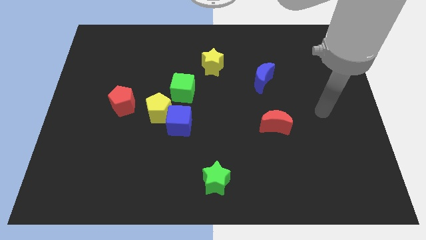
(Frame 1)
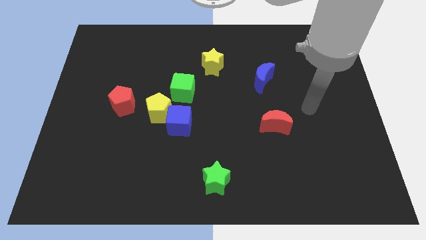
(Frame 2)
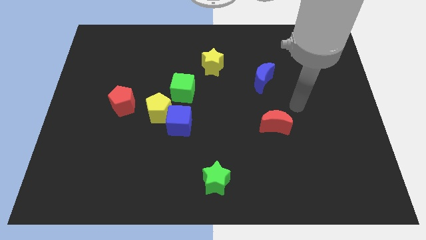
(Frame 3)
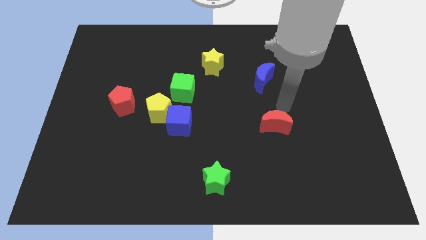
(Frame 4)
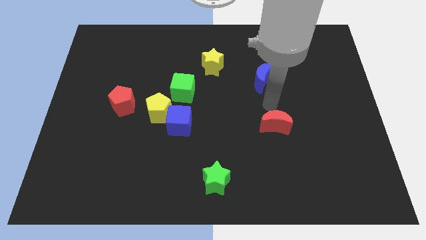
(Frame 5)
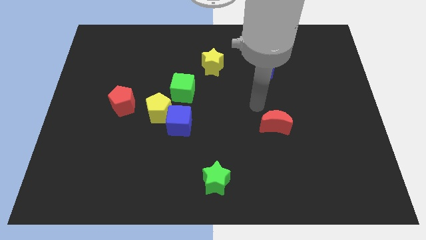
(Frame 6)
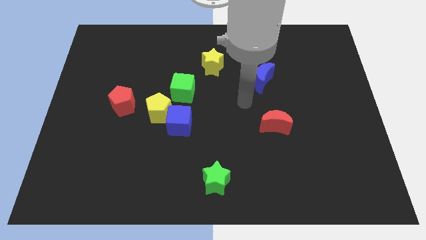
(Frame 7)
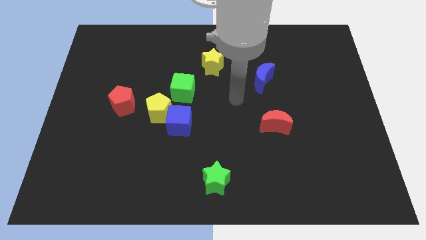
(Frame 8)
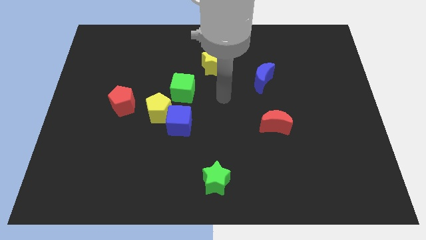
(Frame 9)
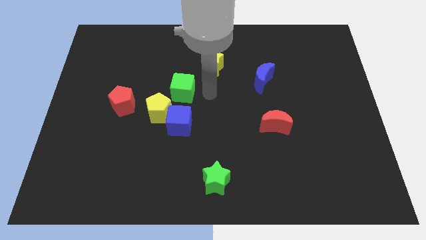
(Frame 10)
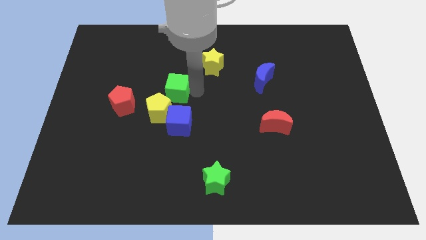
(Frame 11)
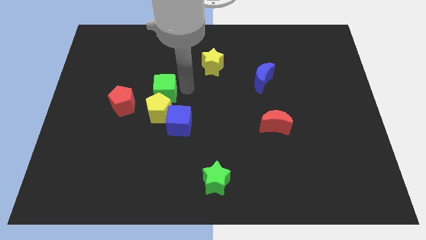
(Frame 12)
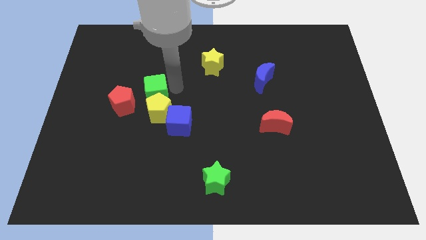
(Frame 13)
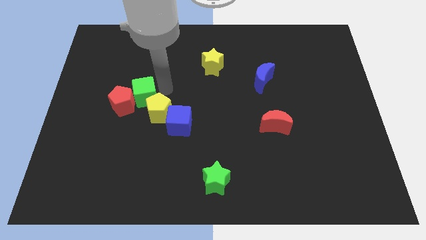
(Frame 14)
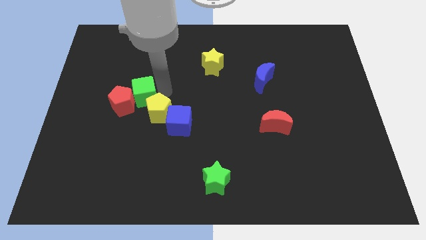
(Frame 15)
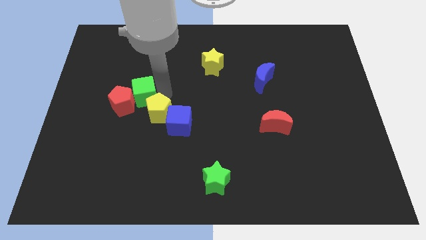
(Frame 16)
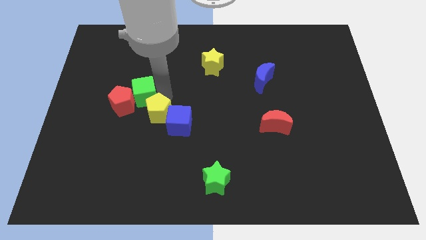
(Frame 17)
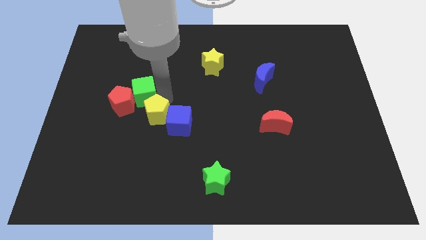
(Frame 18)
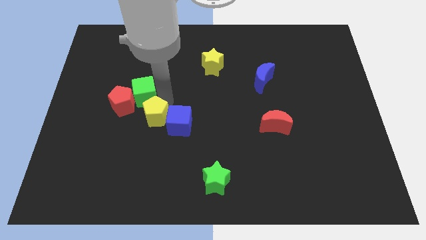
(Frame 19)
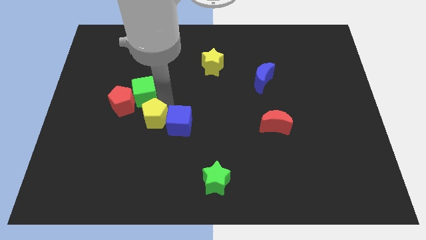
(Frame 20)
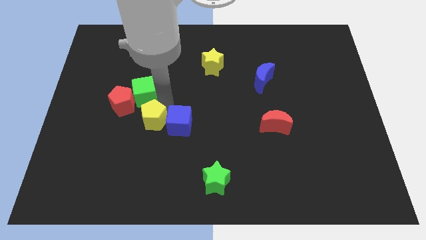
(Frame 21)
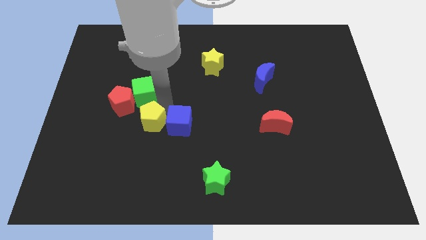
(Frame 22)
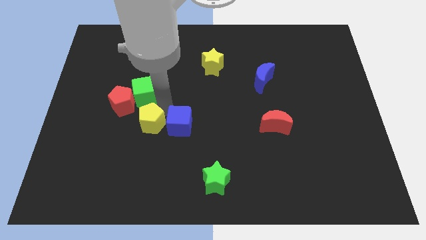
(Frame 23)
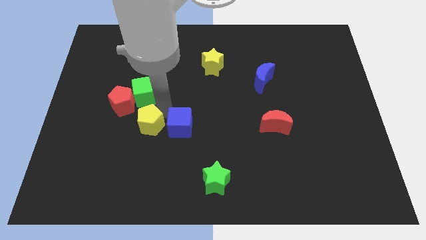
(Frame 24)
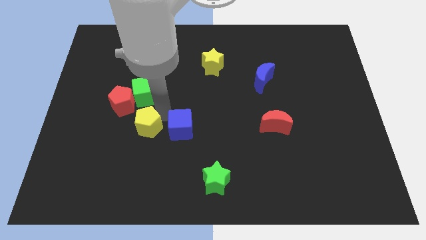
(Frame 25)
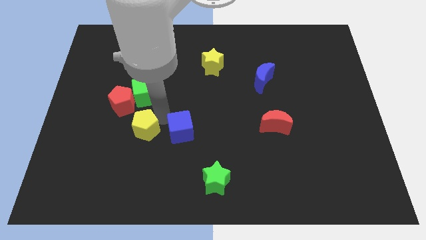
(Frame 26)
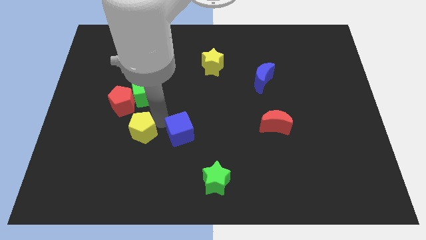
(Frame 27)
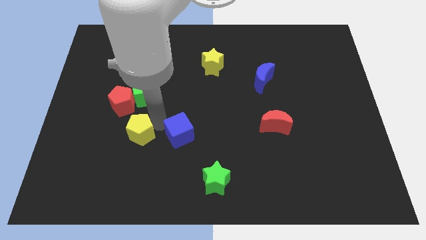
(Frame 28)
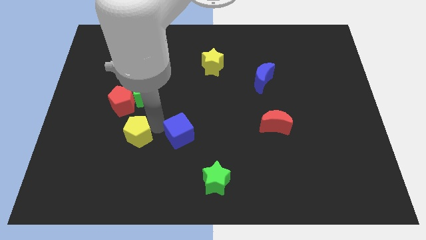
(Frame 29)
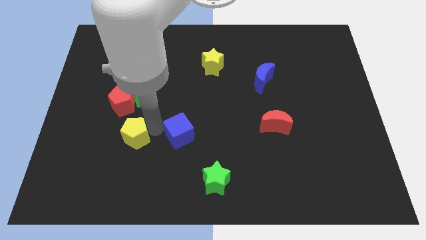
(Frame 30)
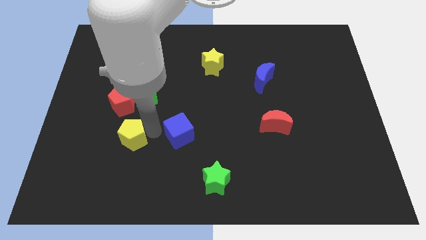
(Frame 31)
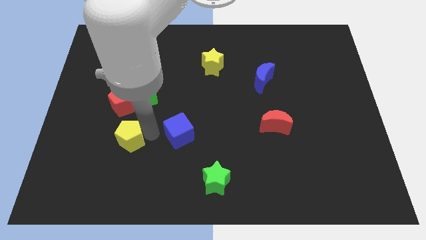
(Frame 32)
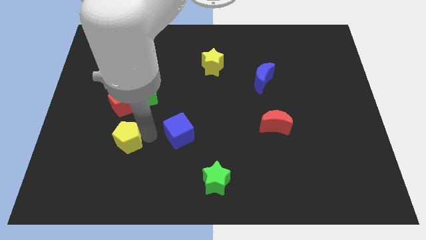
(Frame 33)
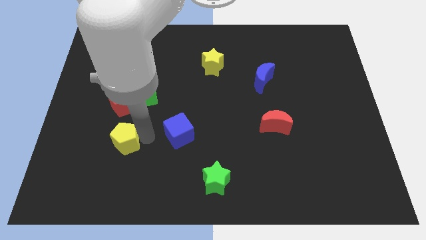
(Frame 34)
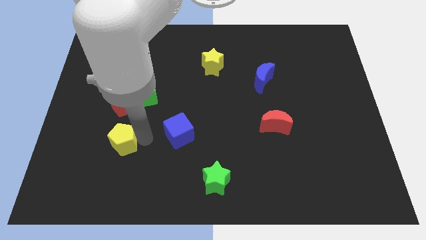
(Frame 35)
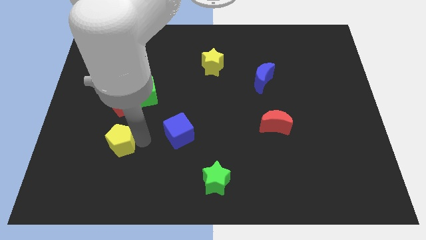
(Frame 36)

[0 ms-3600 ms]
separate the yellow pentagon from the group of blocks

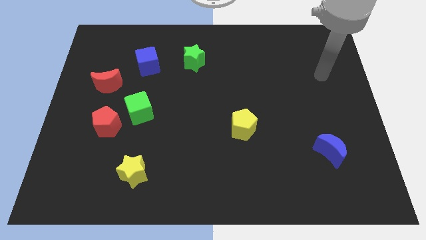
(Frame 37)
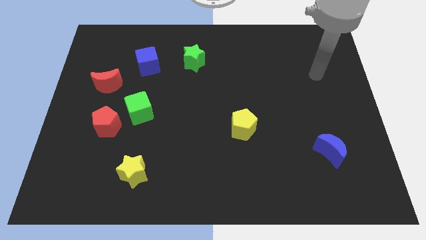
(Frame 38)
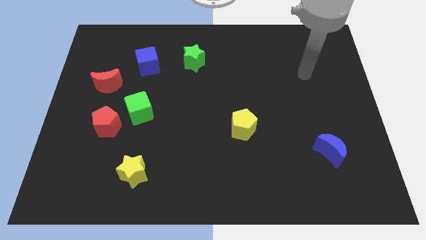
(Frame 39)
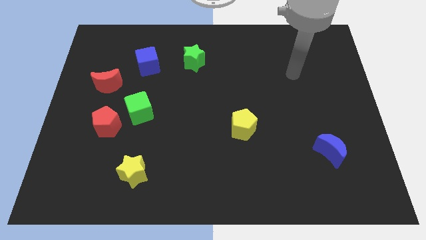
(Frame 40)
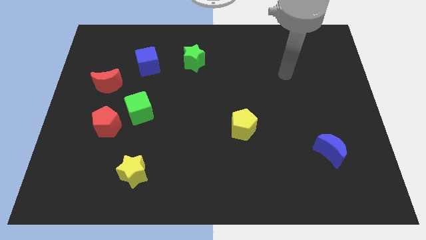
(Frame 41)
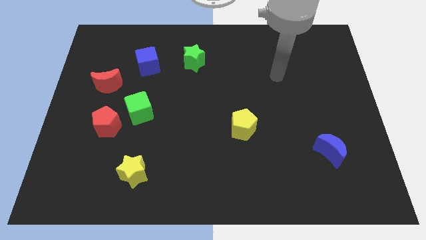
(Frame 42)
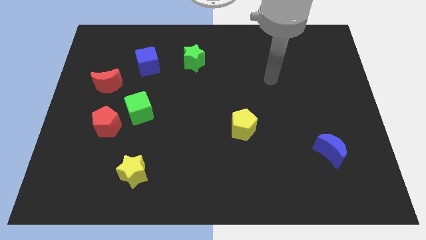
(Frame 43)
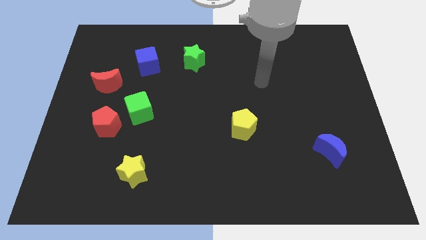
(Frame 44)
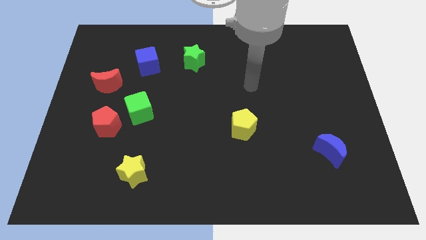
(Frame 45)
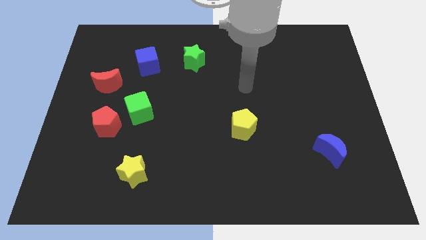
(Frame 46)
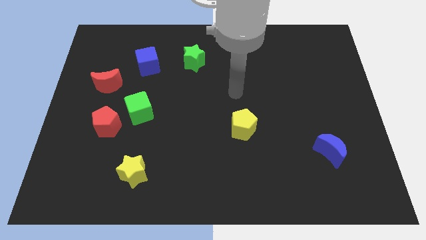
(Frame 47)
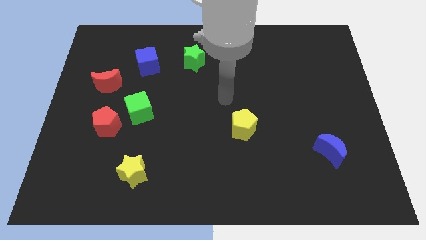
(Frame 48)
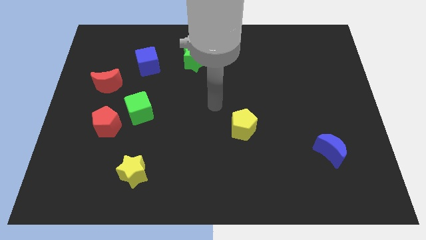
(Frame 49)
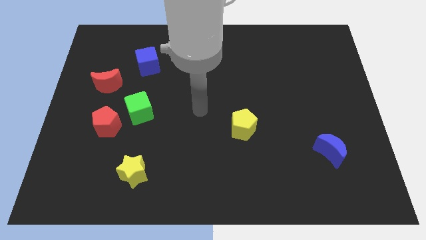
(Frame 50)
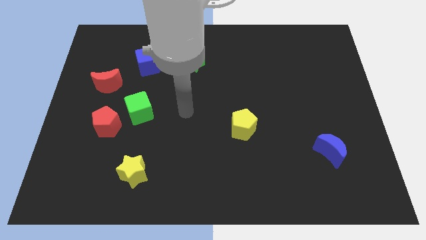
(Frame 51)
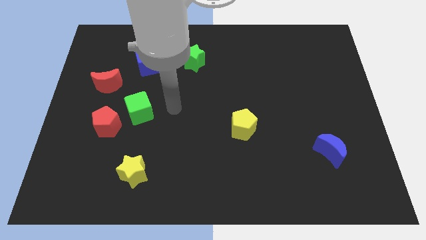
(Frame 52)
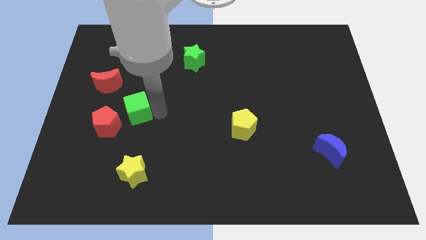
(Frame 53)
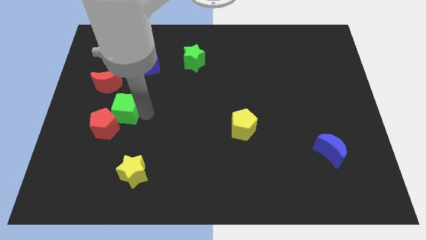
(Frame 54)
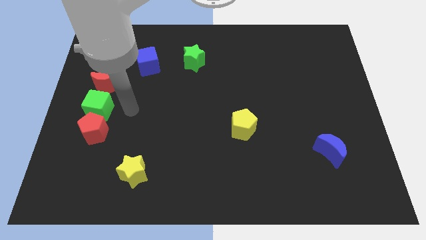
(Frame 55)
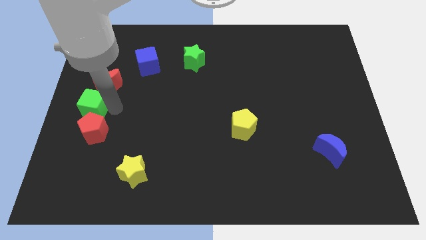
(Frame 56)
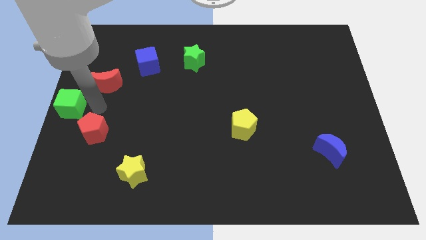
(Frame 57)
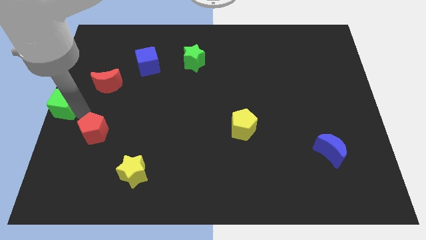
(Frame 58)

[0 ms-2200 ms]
separate the red pentagon from the green cube

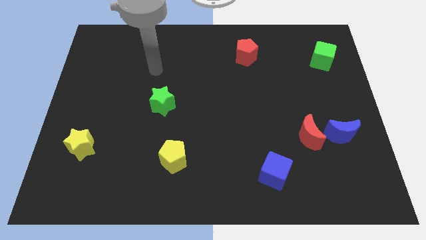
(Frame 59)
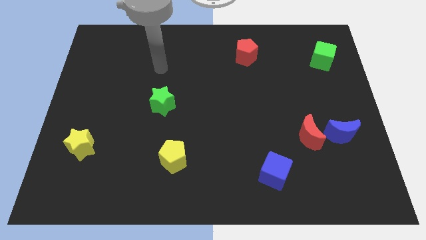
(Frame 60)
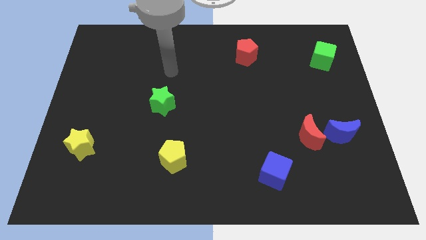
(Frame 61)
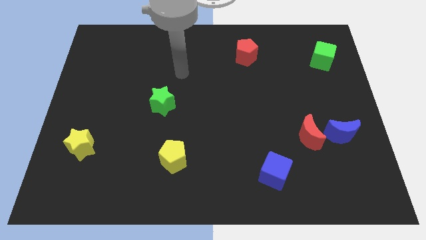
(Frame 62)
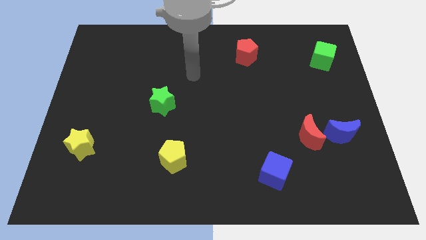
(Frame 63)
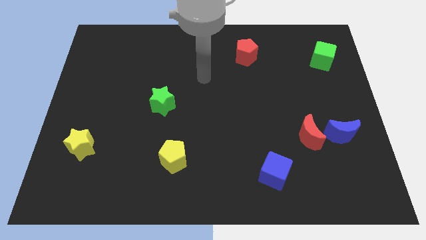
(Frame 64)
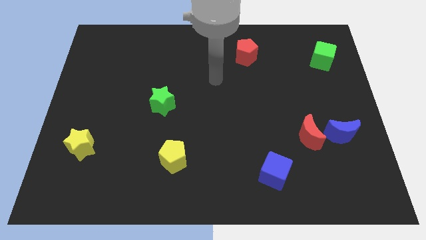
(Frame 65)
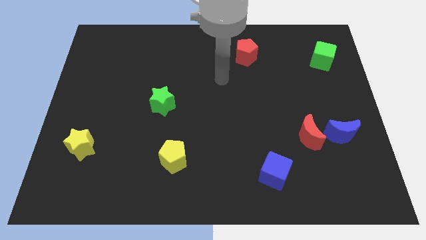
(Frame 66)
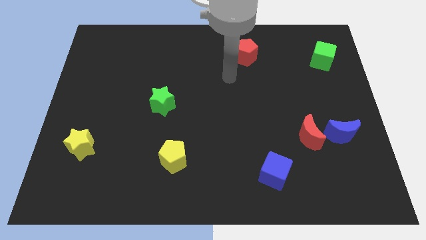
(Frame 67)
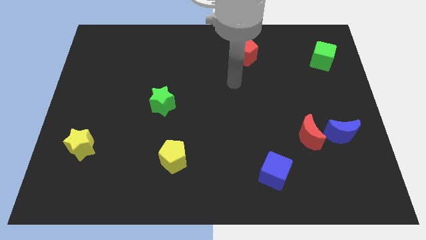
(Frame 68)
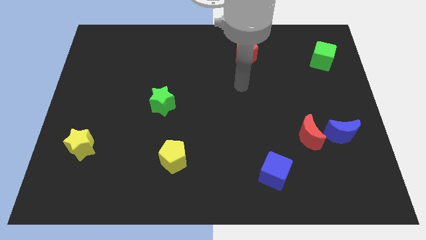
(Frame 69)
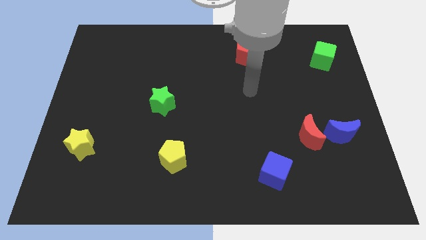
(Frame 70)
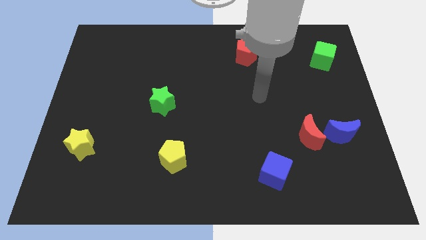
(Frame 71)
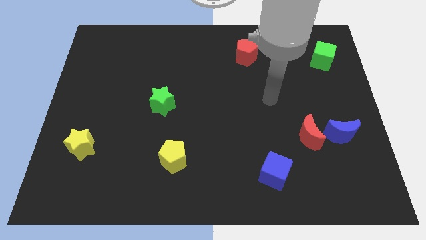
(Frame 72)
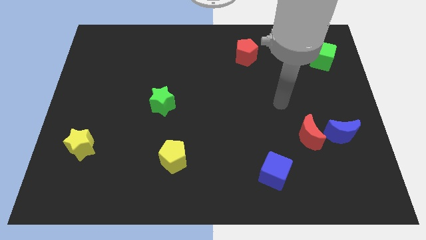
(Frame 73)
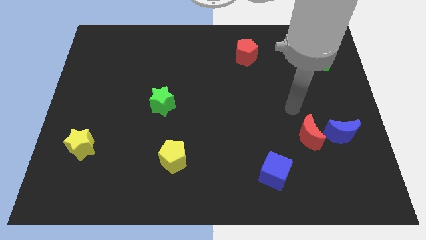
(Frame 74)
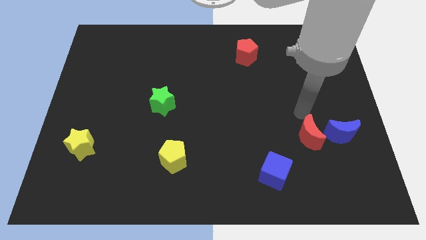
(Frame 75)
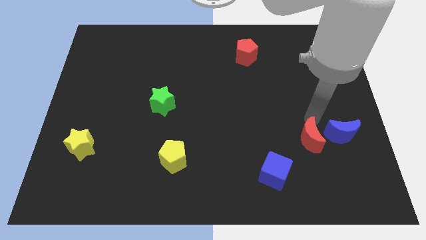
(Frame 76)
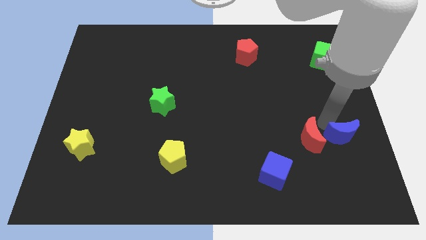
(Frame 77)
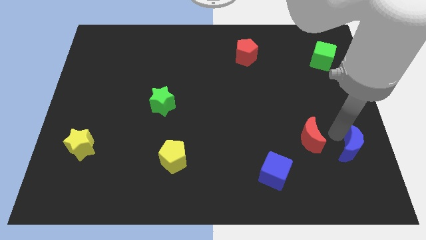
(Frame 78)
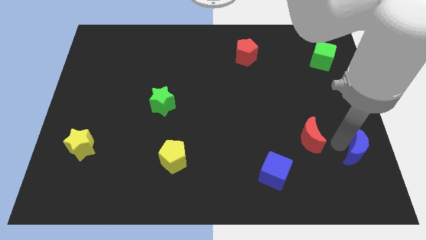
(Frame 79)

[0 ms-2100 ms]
separate the red moon from the blue moon

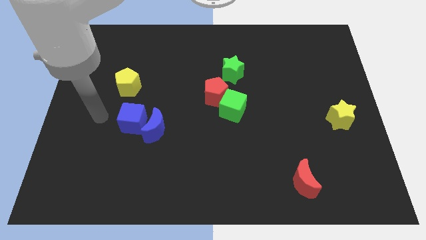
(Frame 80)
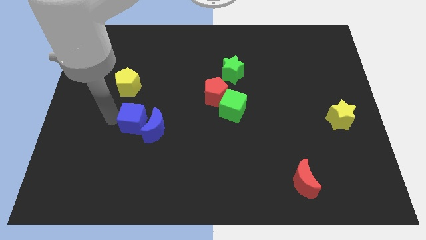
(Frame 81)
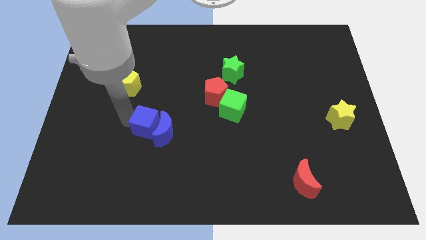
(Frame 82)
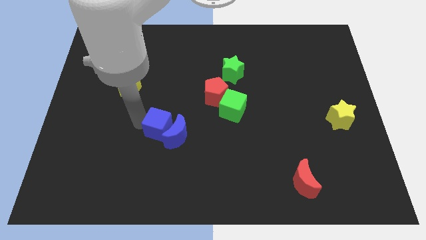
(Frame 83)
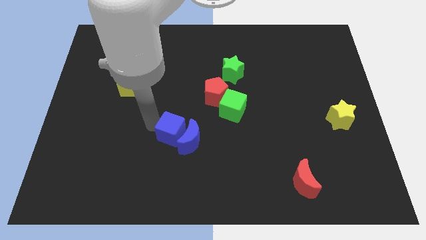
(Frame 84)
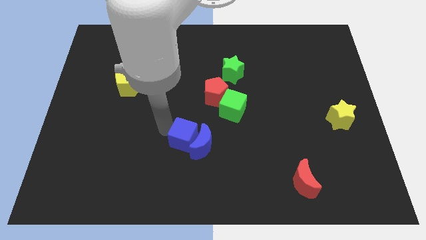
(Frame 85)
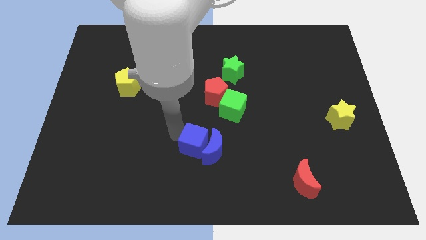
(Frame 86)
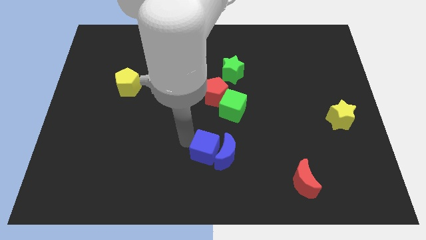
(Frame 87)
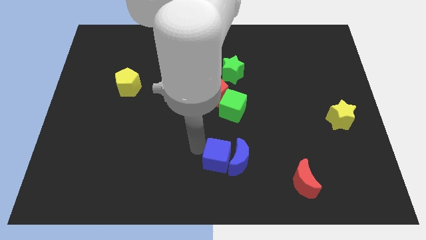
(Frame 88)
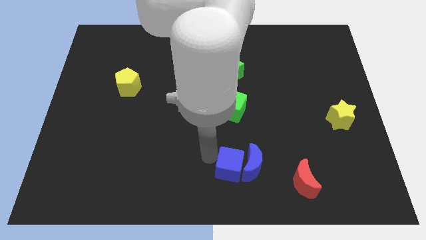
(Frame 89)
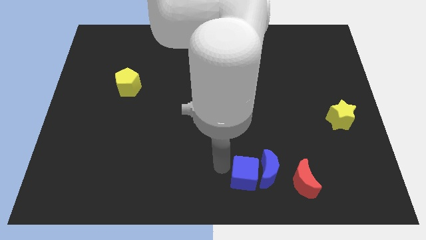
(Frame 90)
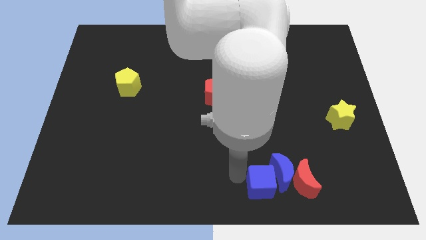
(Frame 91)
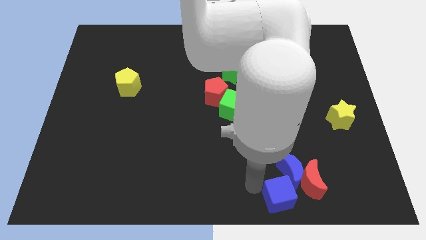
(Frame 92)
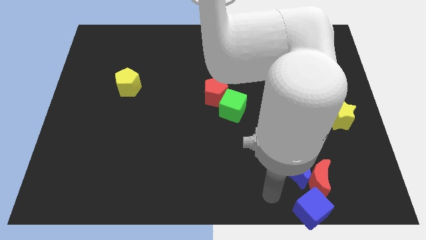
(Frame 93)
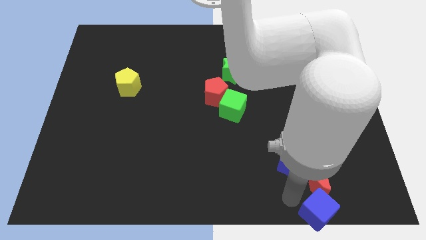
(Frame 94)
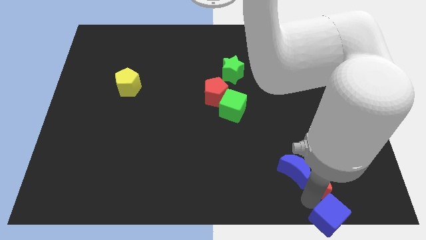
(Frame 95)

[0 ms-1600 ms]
move the blue moon away from the blue cube
